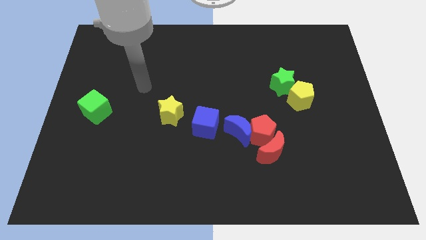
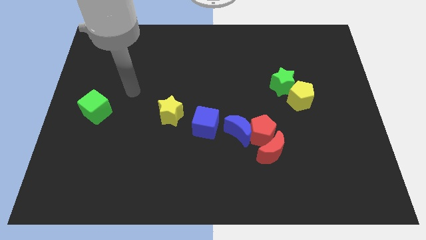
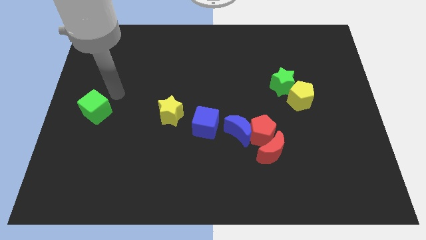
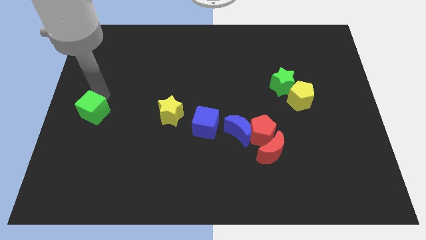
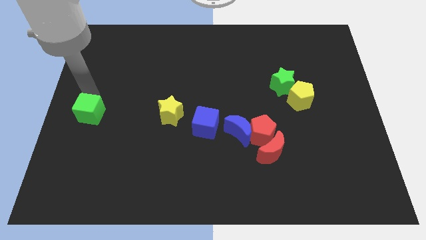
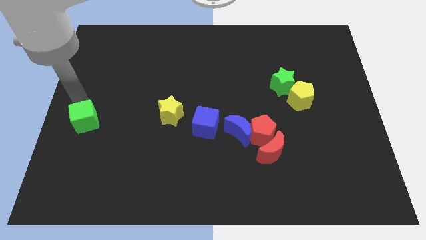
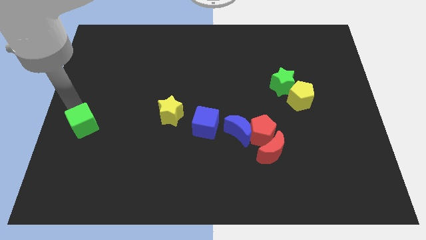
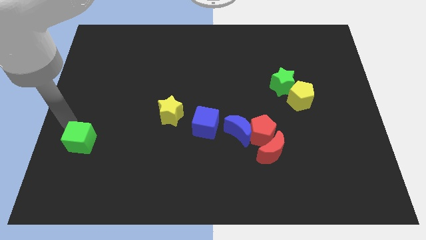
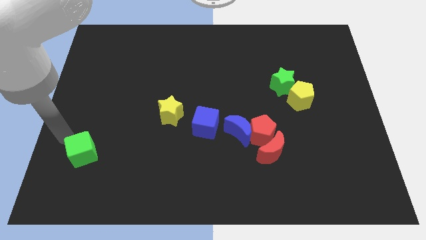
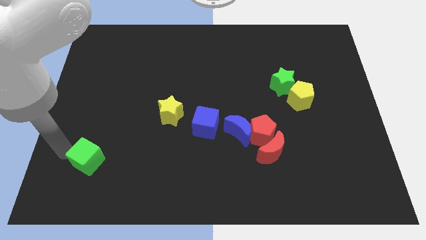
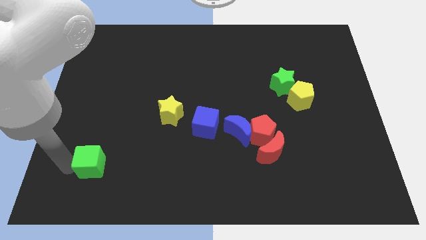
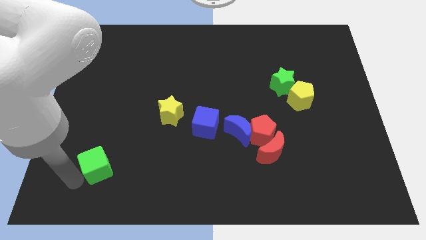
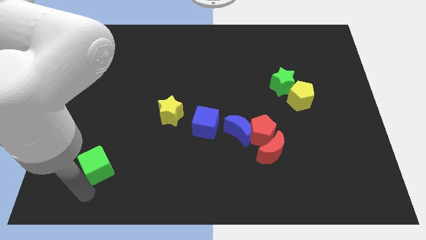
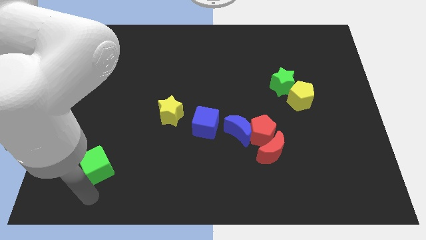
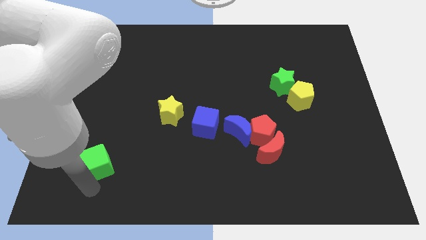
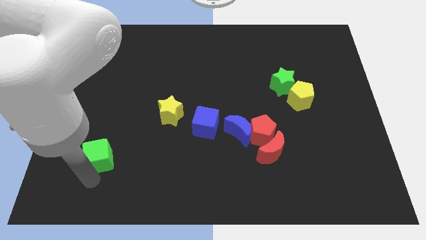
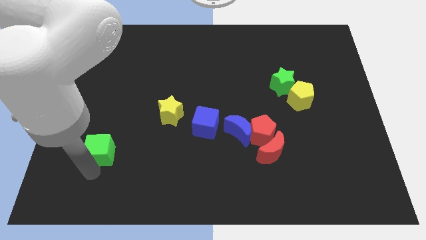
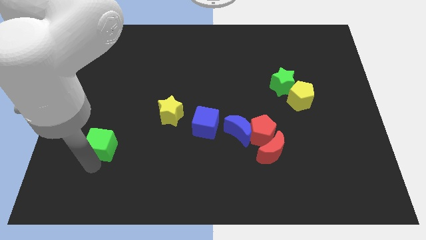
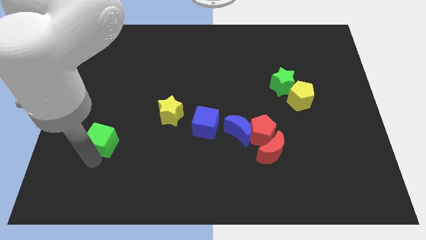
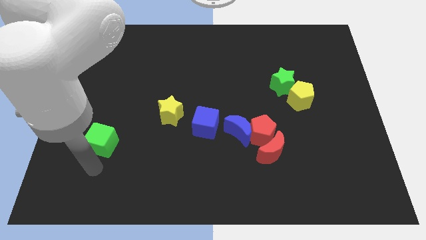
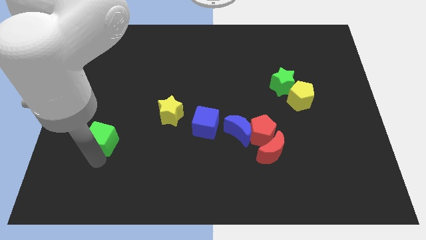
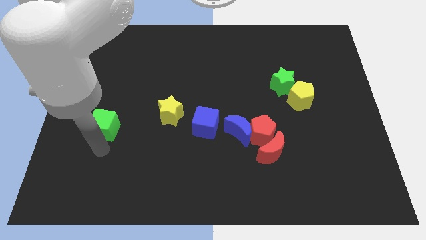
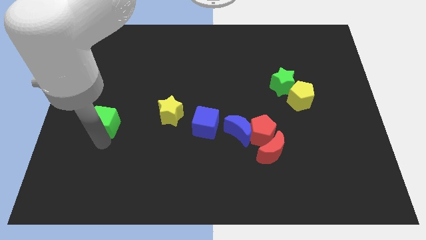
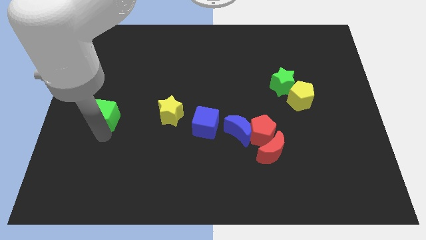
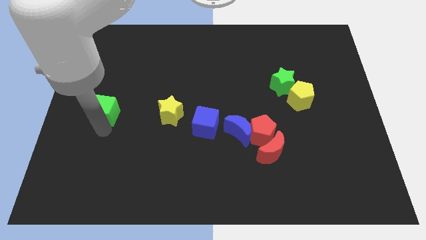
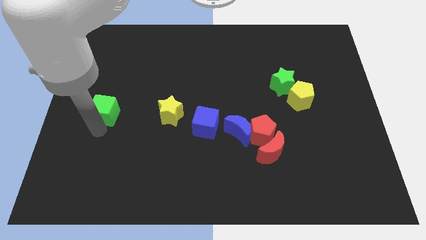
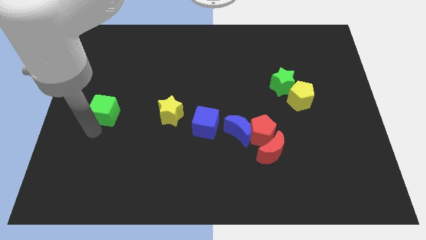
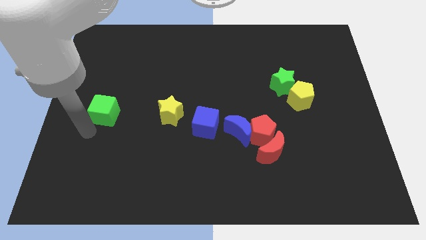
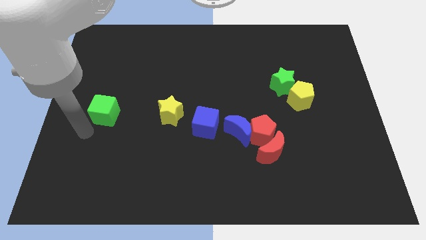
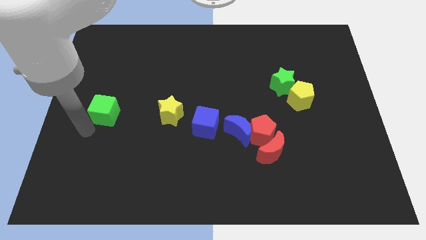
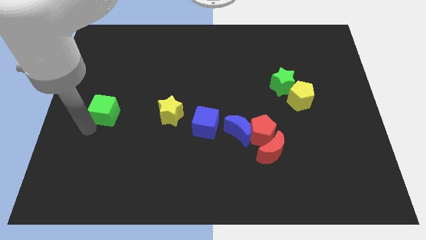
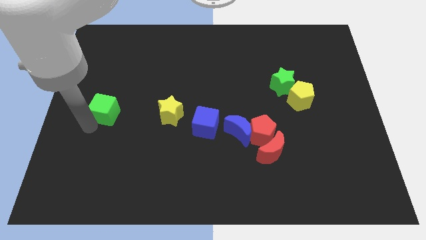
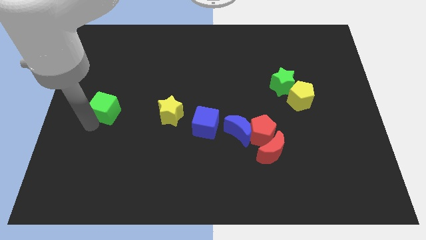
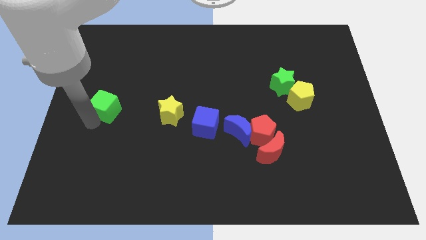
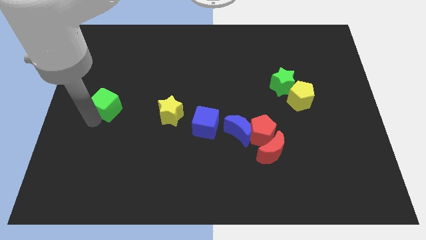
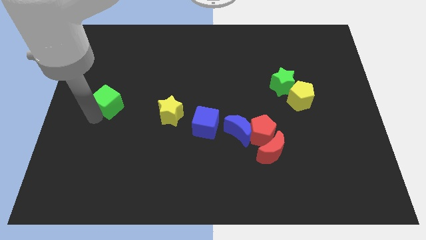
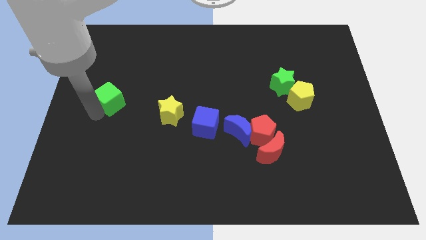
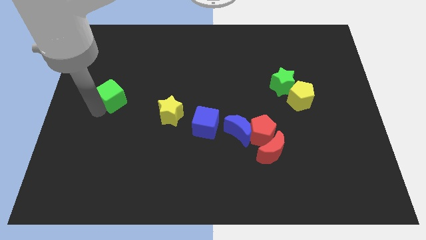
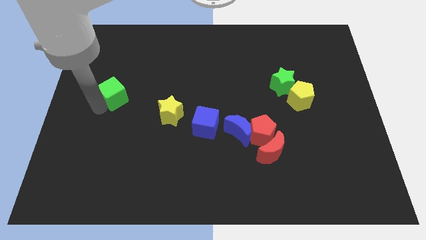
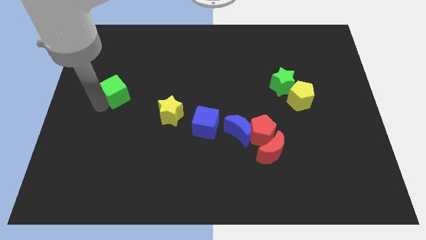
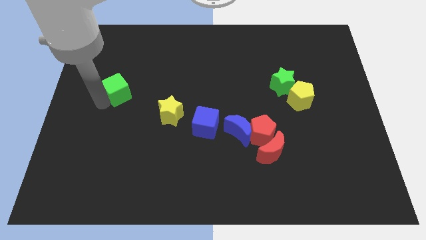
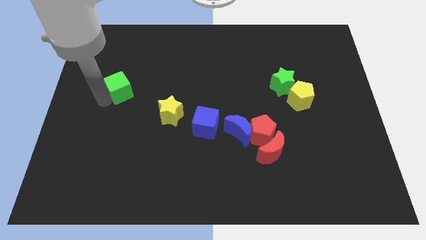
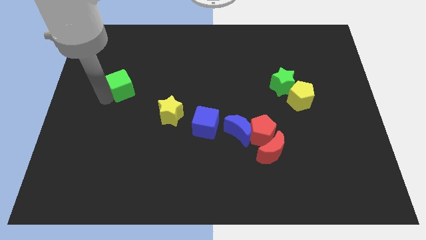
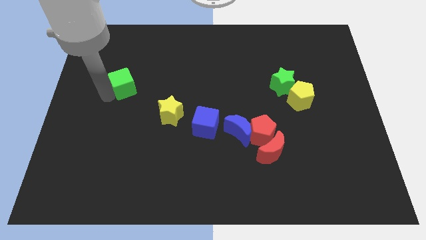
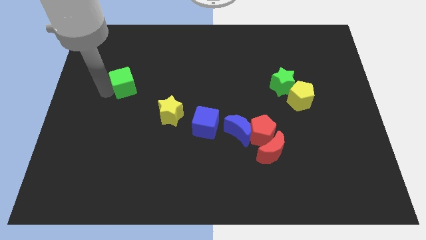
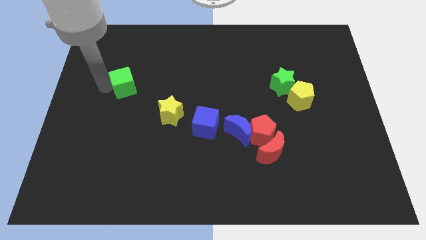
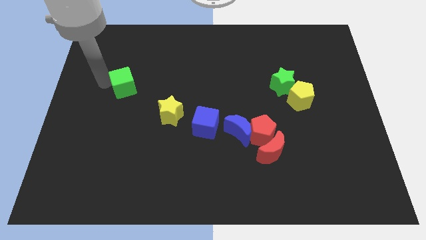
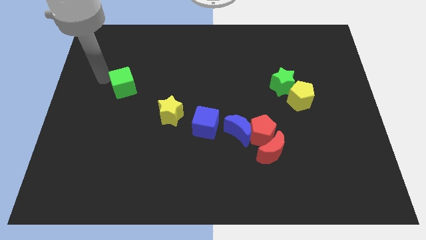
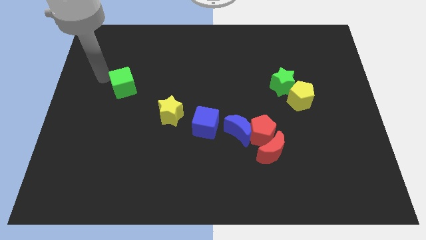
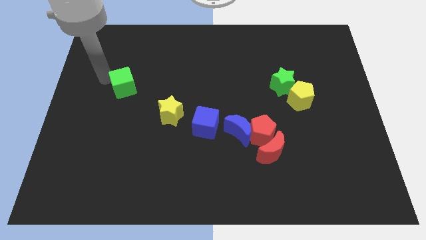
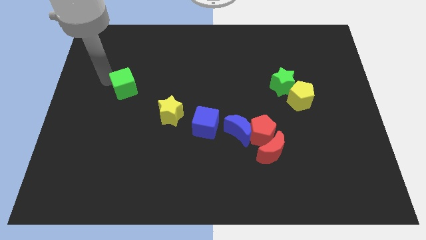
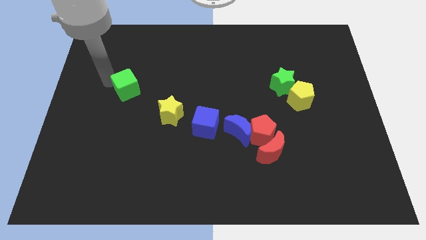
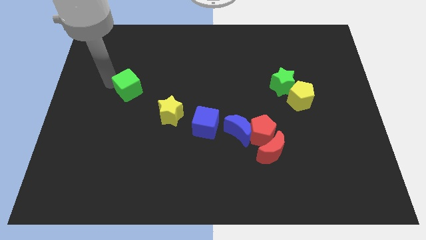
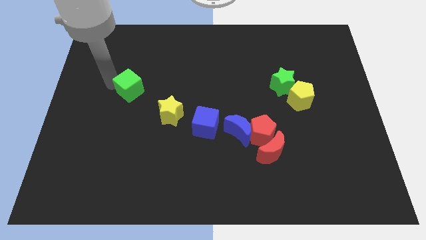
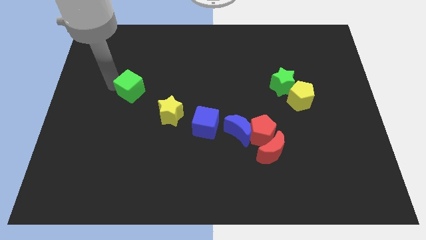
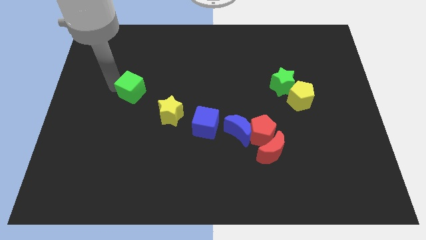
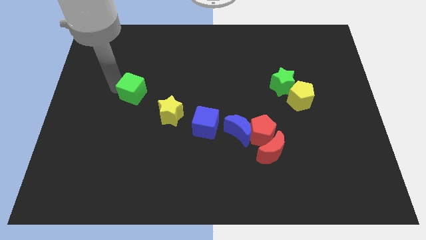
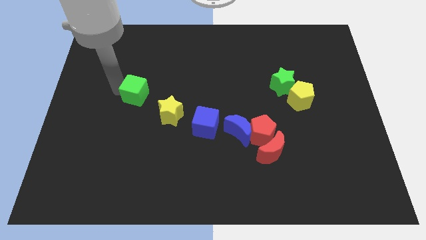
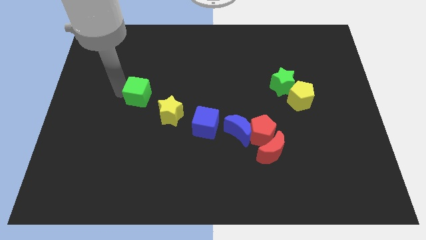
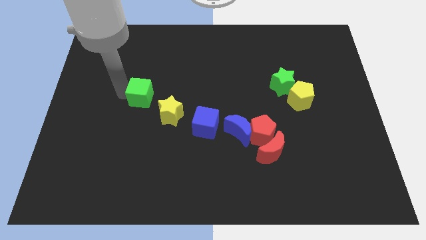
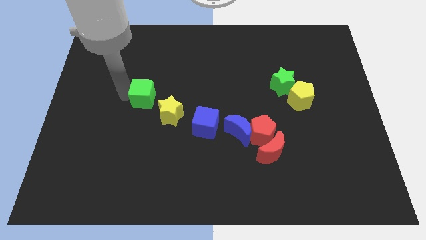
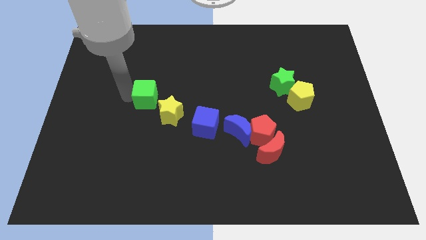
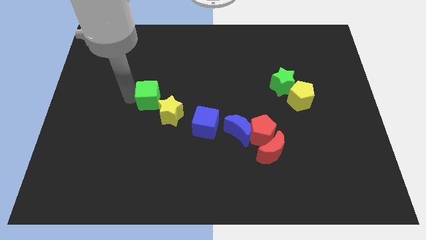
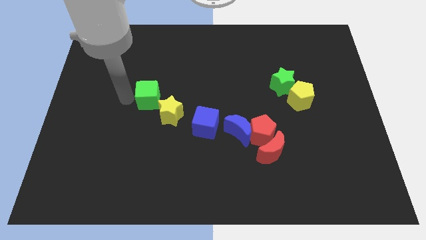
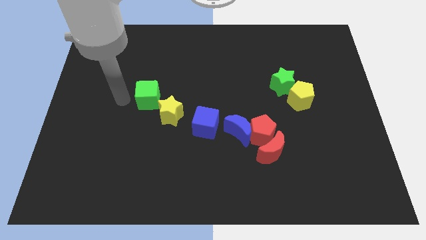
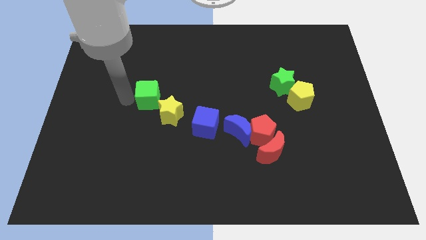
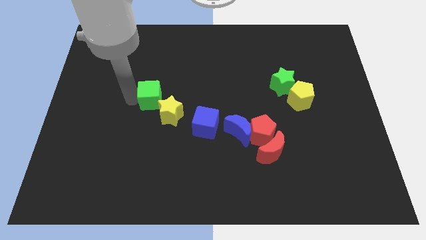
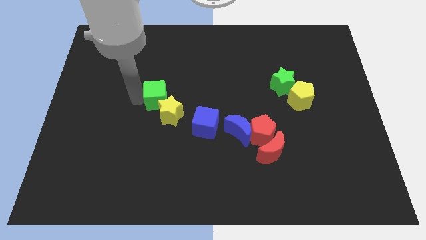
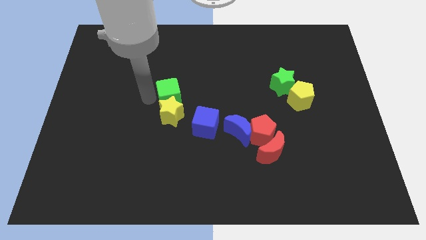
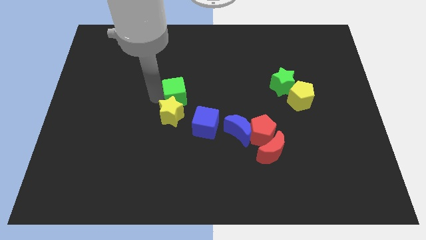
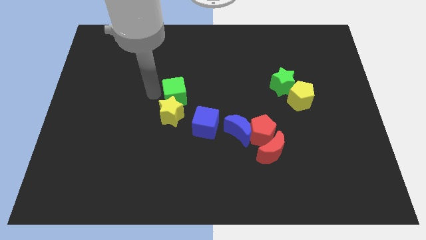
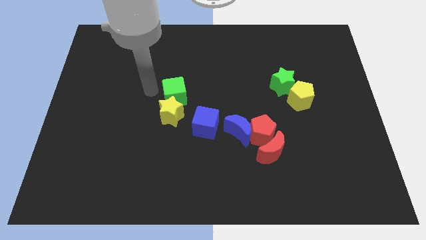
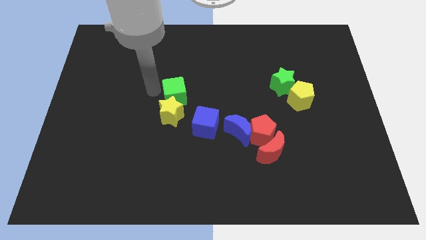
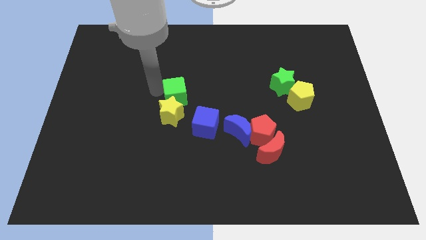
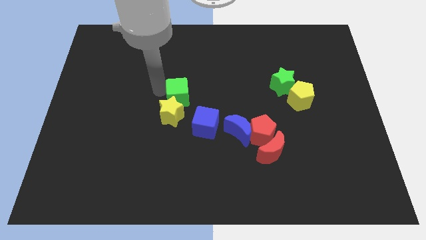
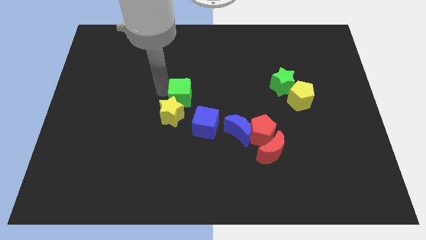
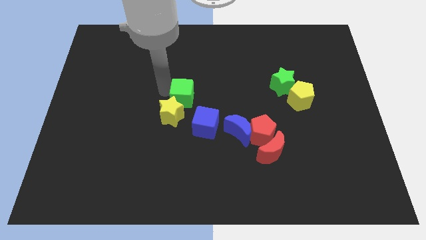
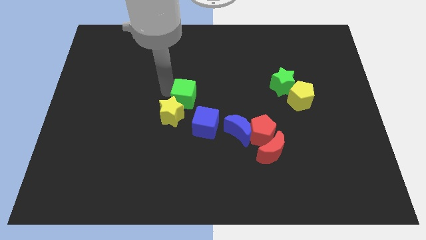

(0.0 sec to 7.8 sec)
push the green cube to the right

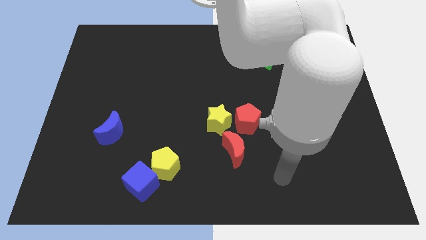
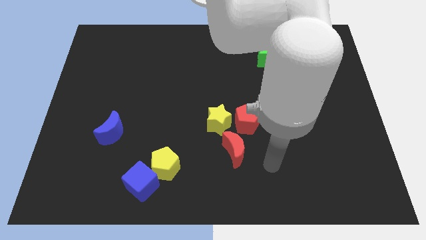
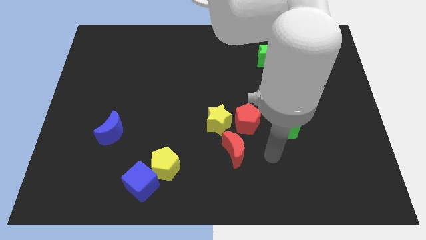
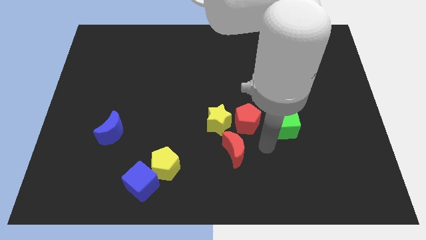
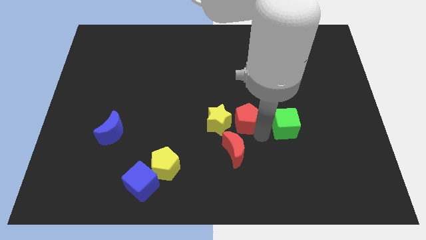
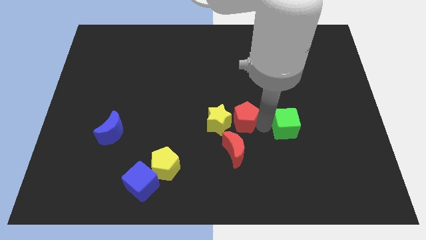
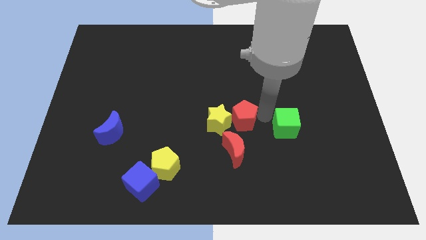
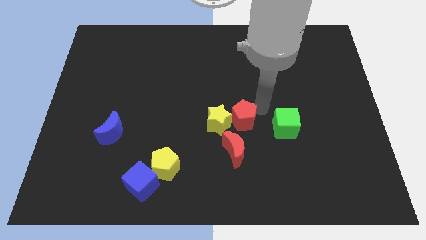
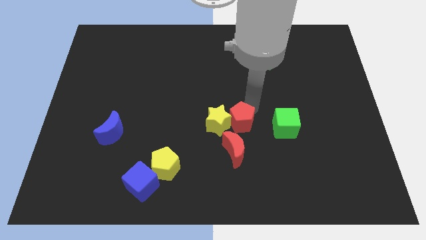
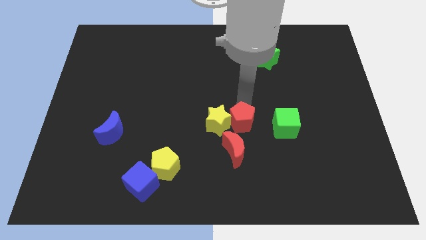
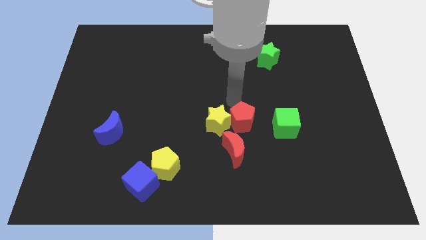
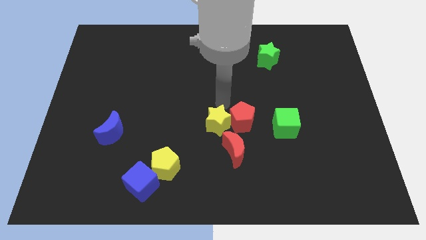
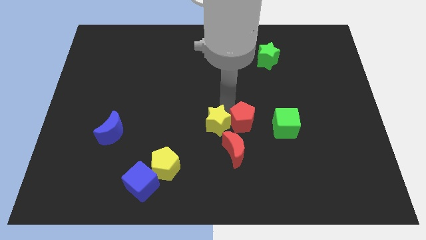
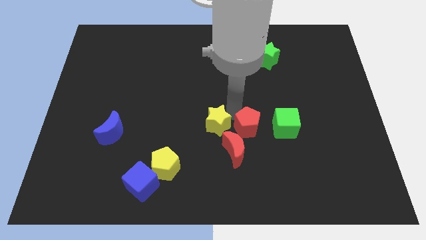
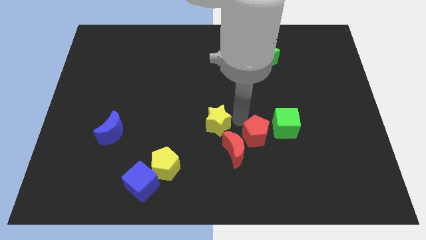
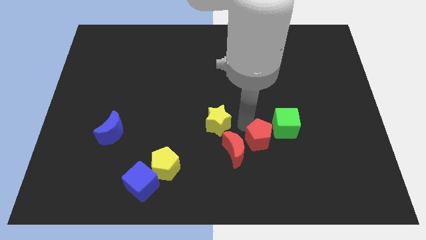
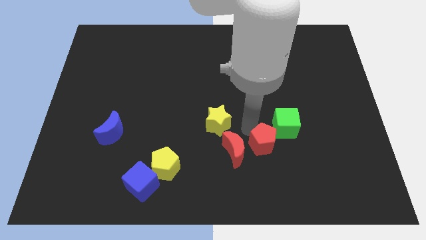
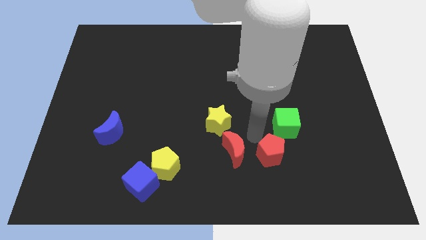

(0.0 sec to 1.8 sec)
slightly push the red pentagon down and to the right diagonally
